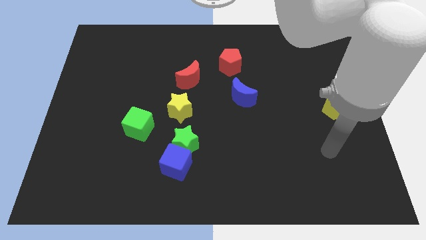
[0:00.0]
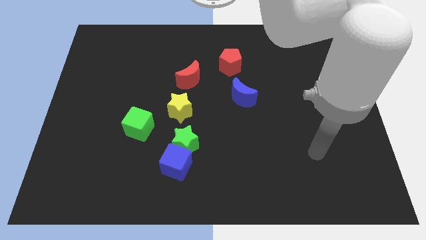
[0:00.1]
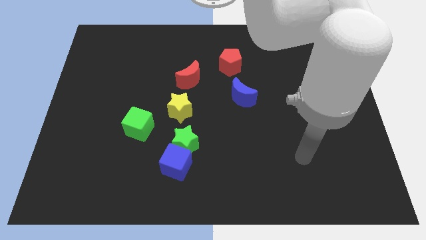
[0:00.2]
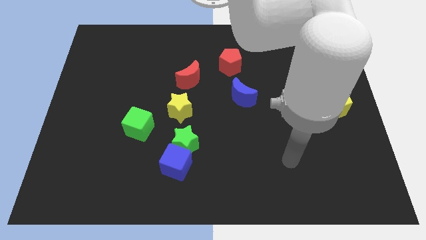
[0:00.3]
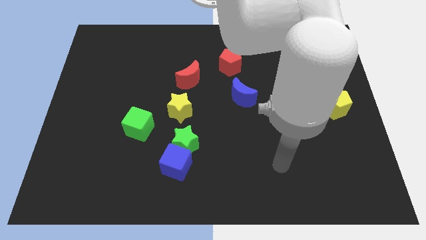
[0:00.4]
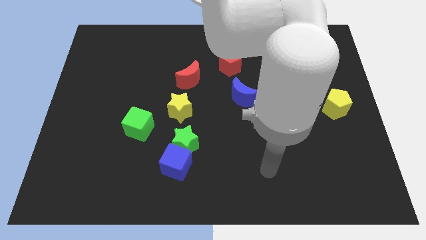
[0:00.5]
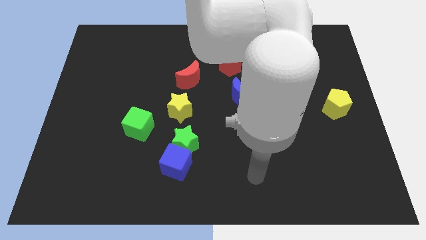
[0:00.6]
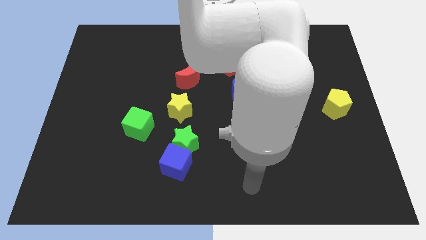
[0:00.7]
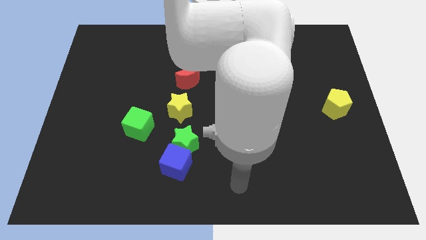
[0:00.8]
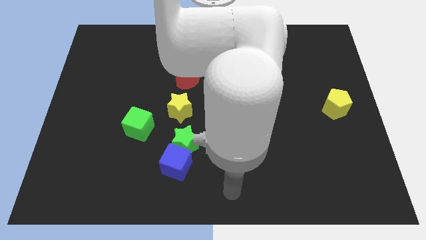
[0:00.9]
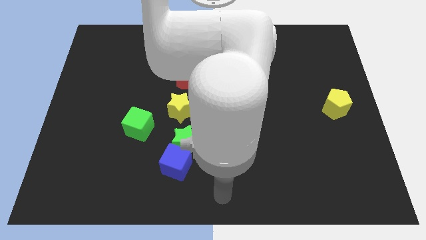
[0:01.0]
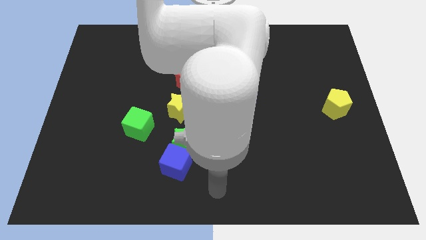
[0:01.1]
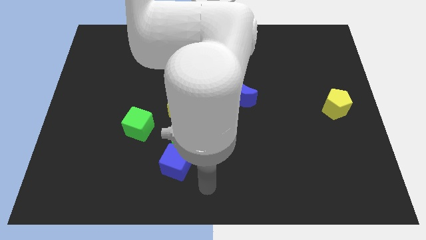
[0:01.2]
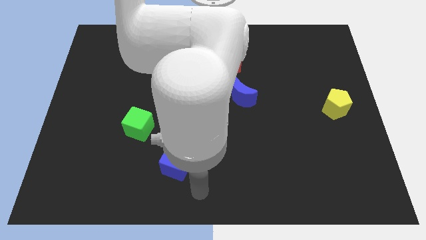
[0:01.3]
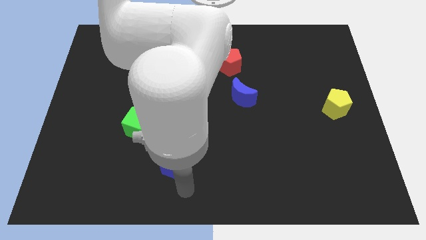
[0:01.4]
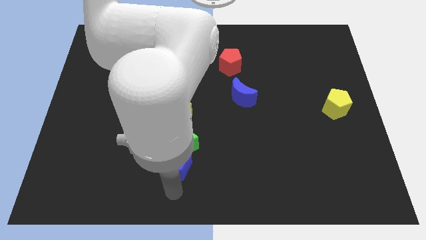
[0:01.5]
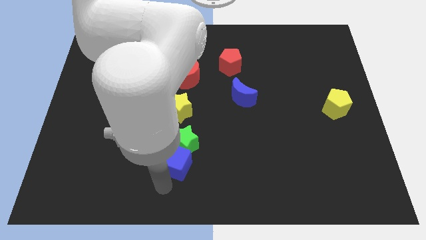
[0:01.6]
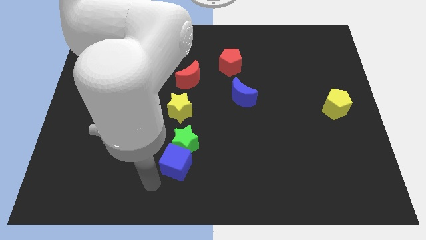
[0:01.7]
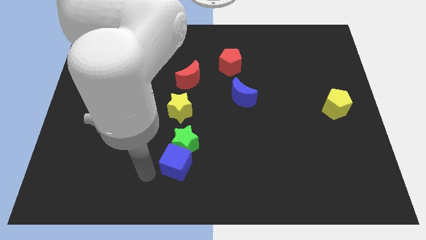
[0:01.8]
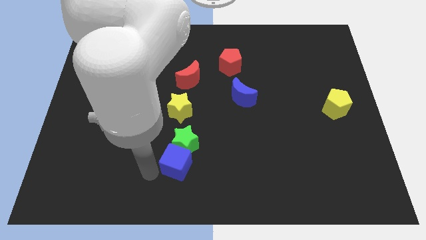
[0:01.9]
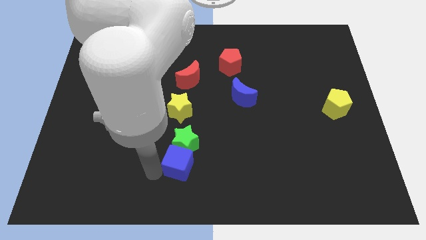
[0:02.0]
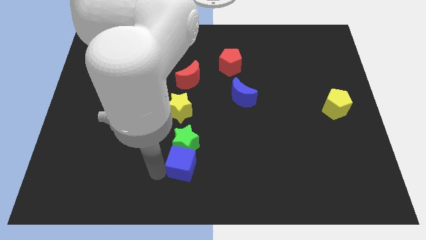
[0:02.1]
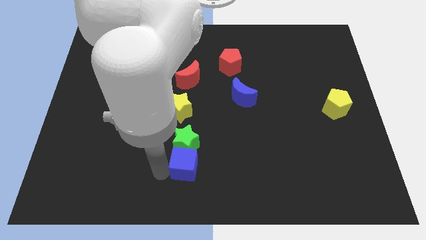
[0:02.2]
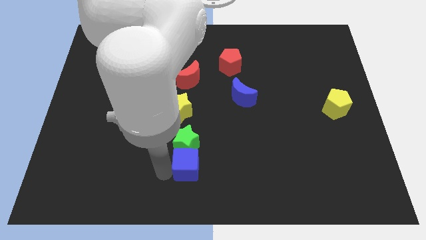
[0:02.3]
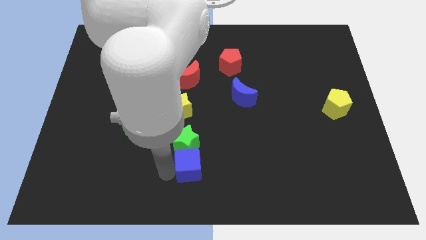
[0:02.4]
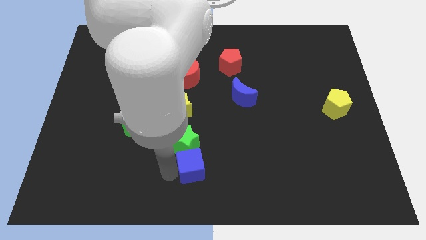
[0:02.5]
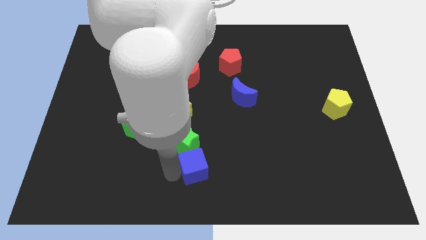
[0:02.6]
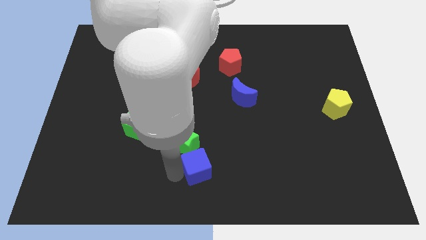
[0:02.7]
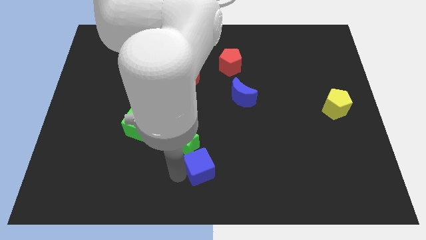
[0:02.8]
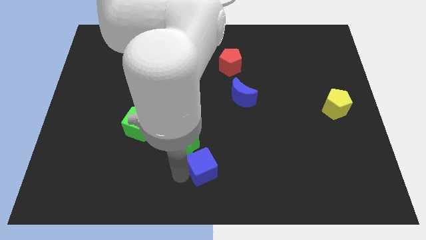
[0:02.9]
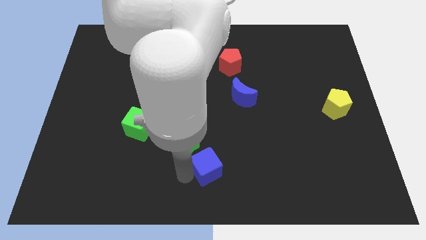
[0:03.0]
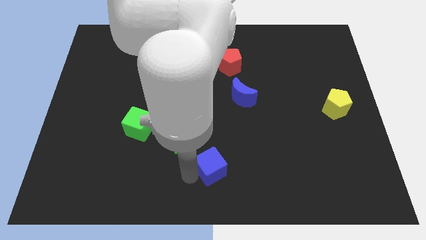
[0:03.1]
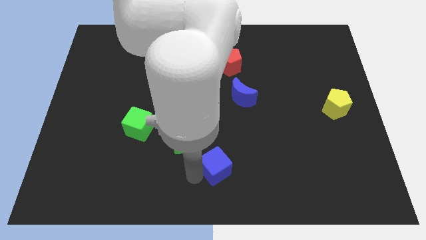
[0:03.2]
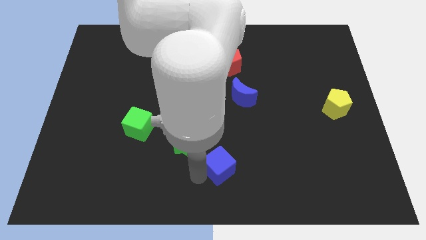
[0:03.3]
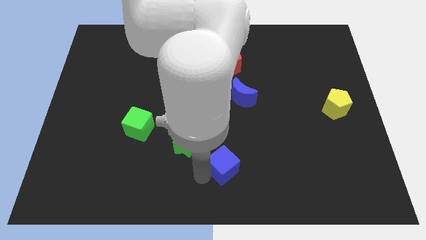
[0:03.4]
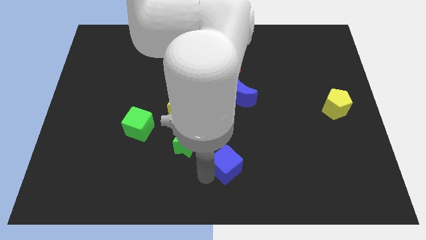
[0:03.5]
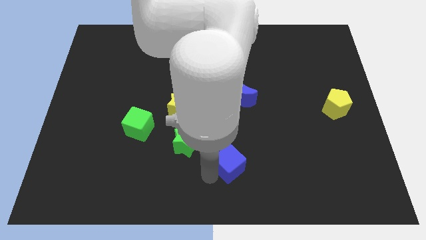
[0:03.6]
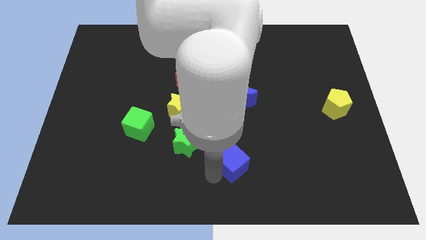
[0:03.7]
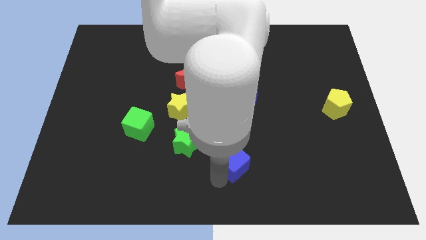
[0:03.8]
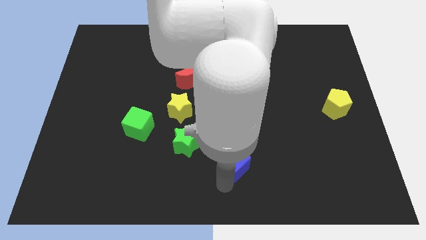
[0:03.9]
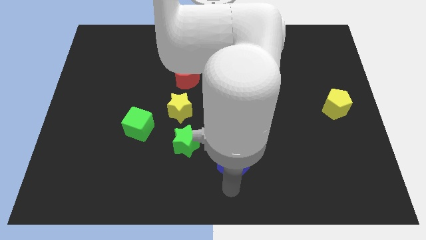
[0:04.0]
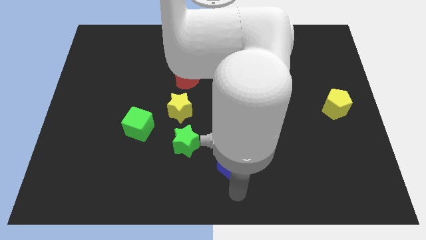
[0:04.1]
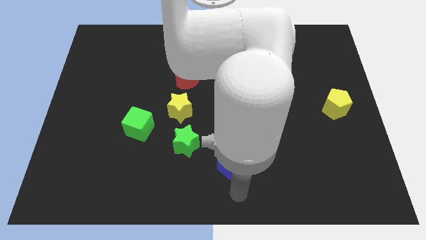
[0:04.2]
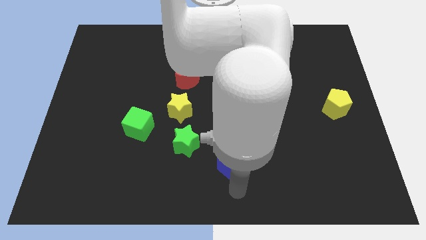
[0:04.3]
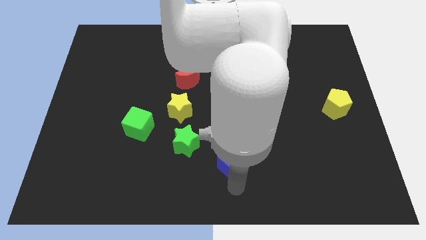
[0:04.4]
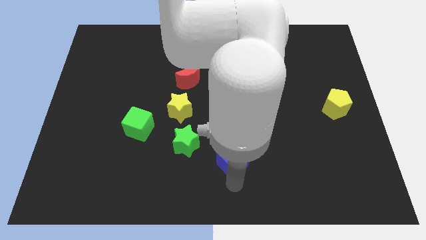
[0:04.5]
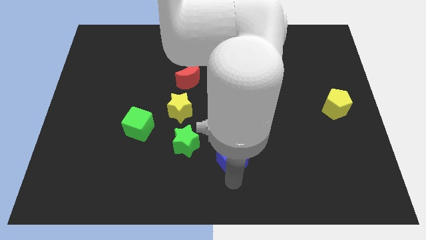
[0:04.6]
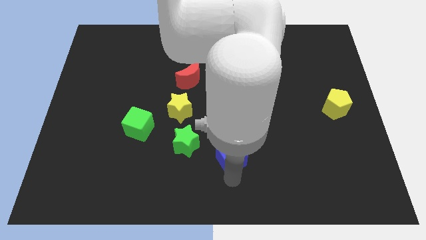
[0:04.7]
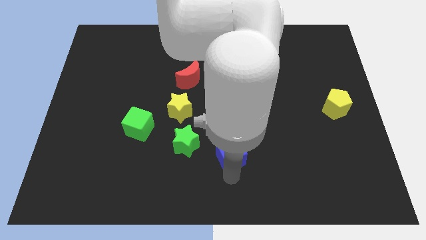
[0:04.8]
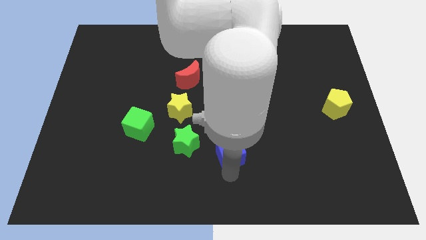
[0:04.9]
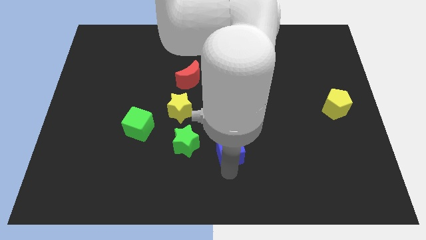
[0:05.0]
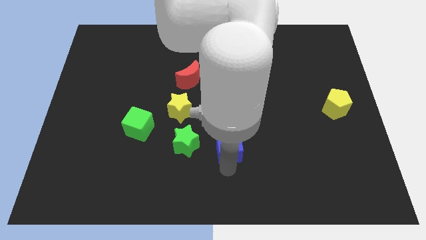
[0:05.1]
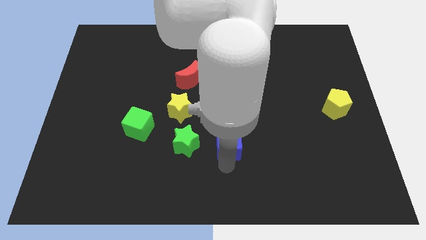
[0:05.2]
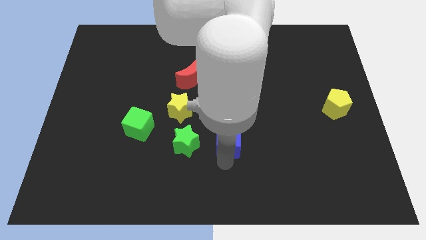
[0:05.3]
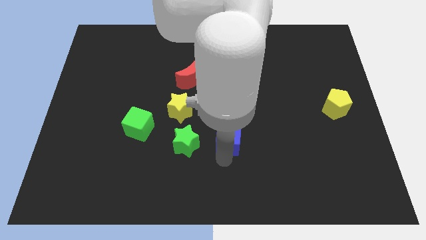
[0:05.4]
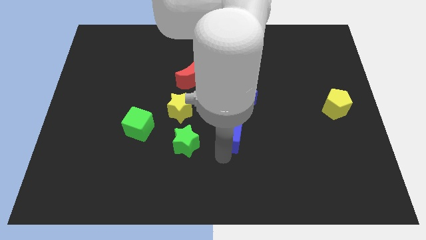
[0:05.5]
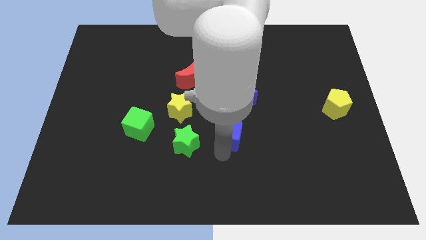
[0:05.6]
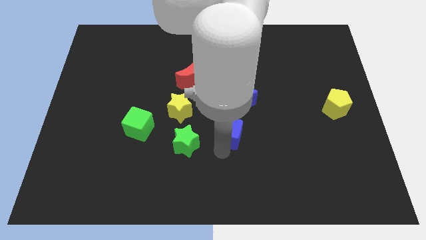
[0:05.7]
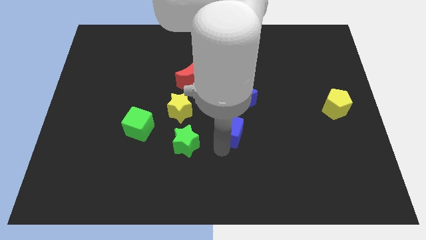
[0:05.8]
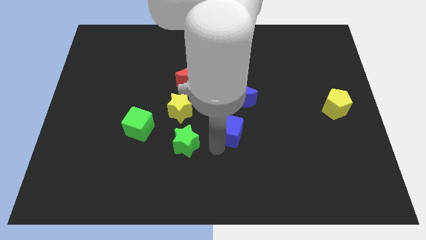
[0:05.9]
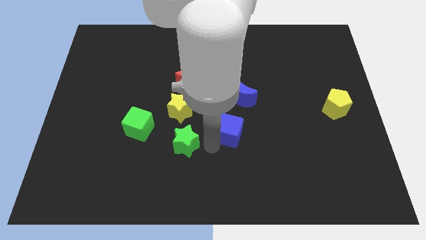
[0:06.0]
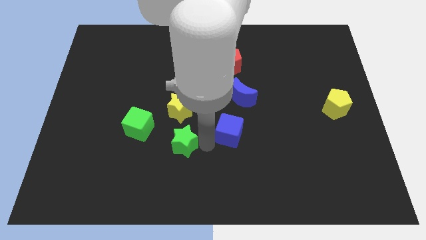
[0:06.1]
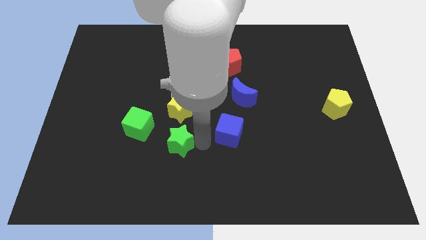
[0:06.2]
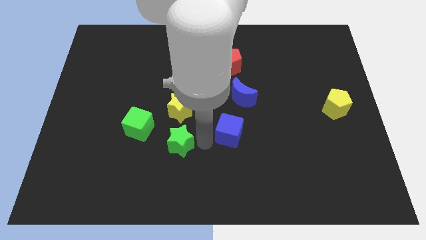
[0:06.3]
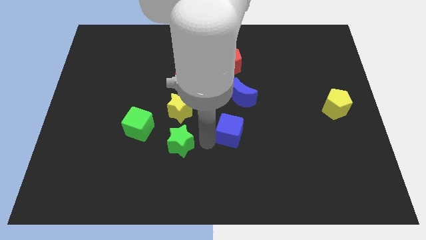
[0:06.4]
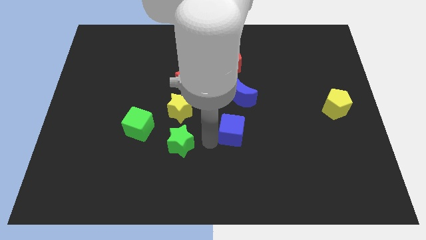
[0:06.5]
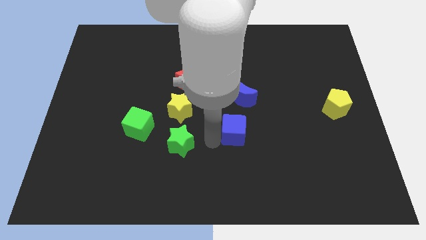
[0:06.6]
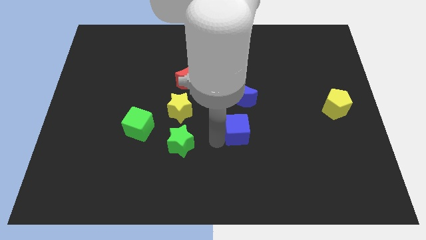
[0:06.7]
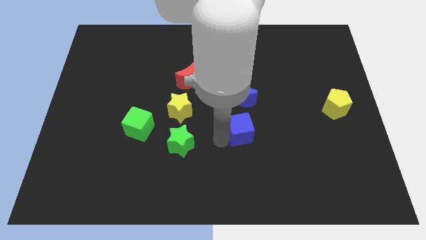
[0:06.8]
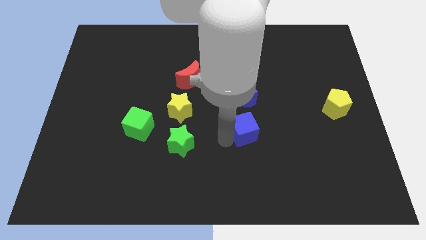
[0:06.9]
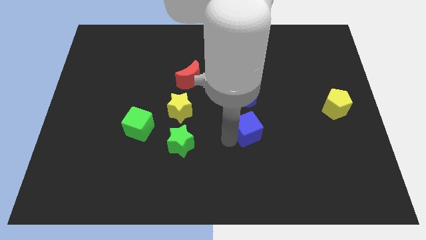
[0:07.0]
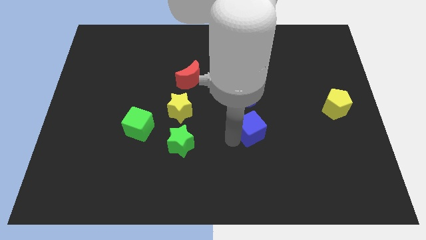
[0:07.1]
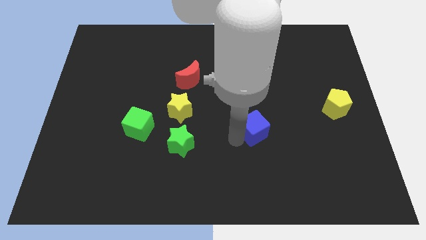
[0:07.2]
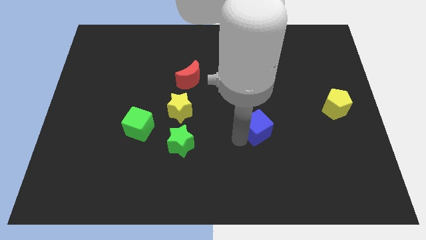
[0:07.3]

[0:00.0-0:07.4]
move the blue cube to the bottom right of the blue moon
